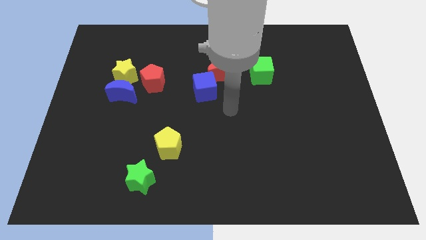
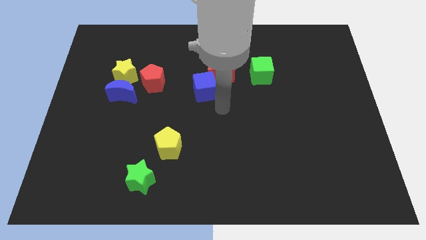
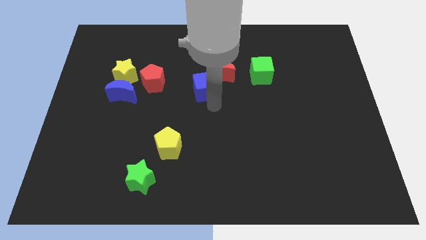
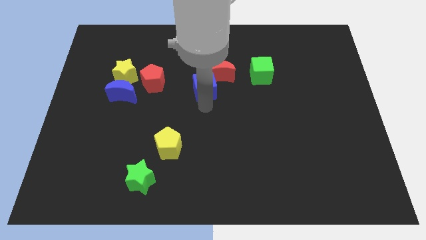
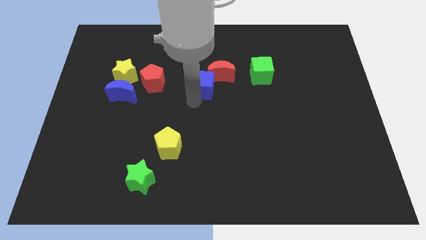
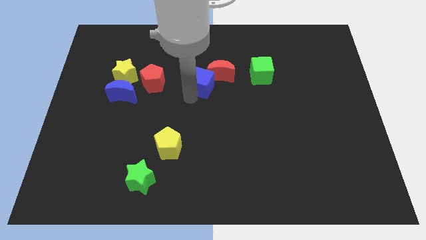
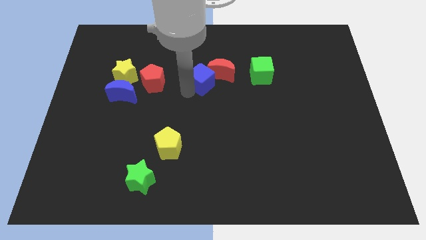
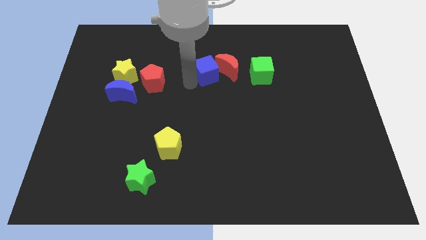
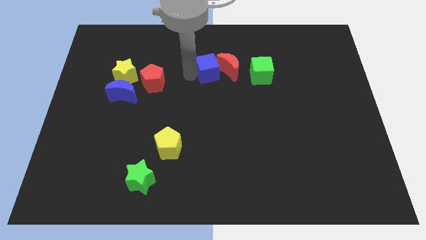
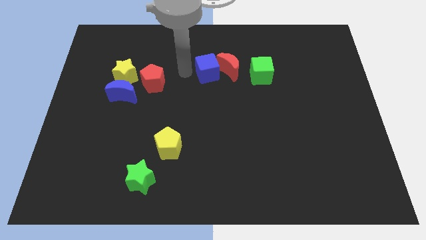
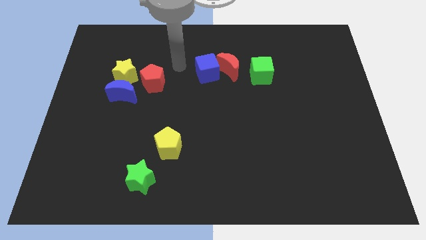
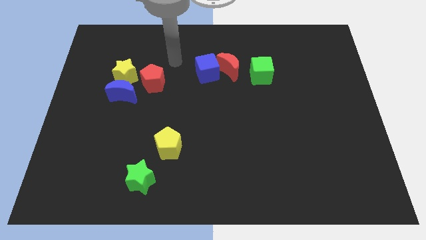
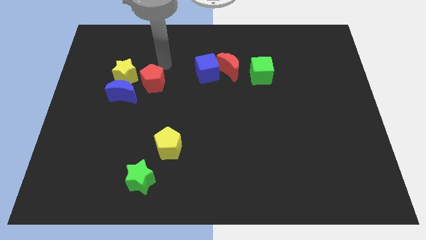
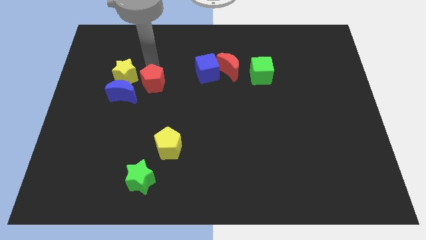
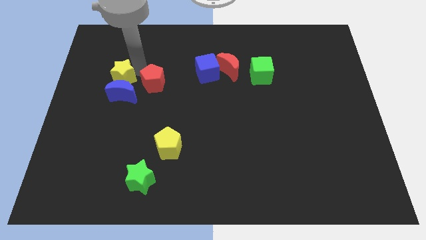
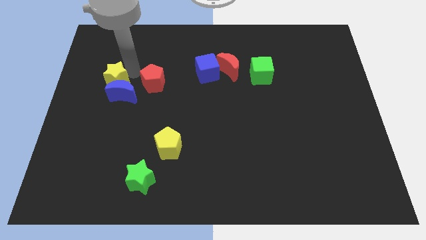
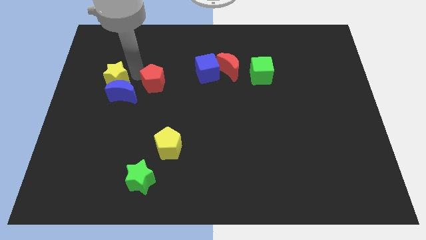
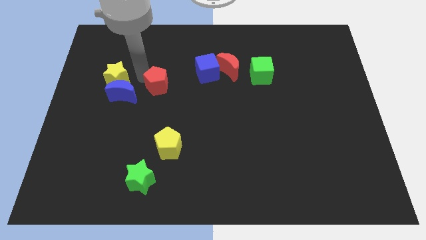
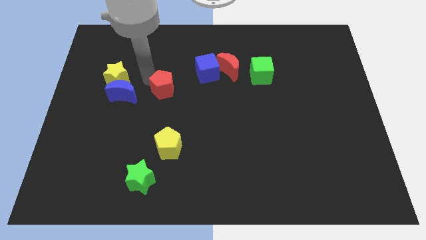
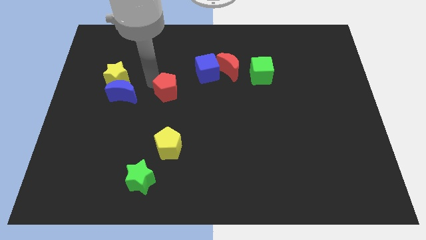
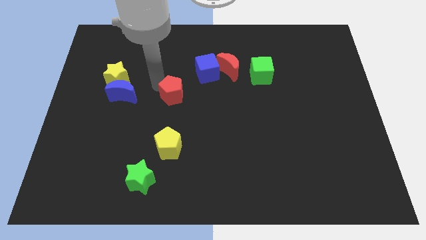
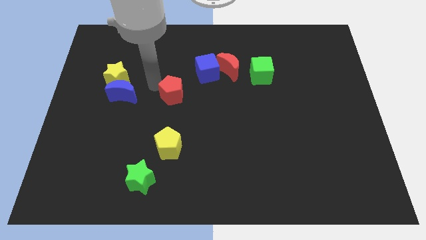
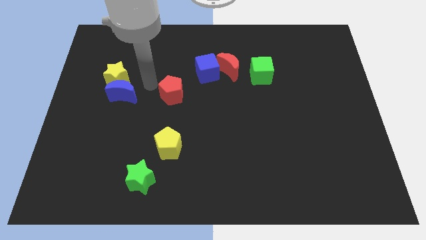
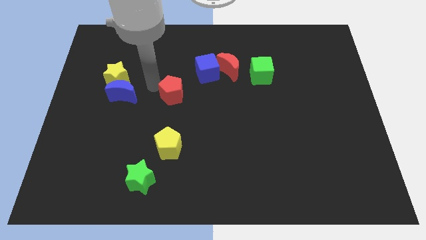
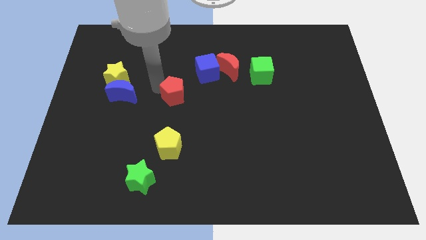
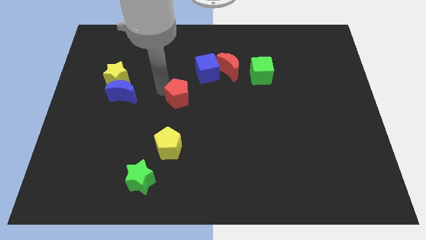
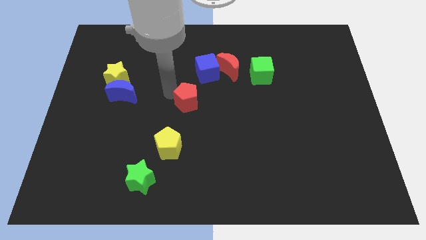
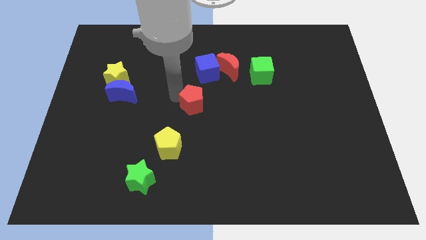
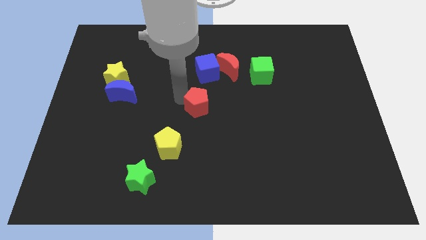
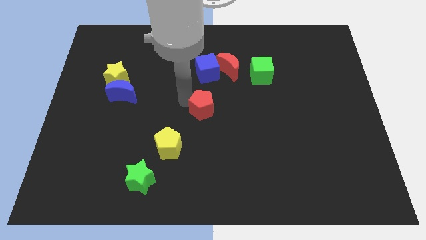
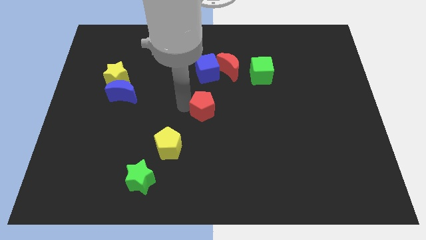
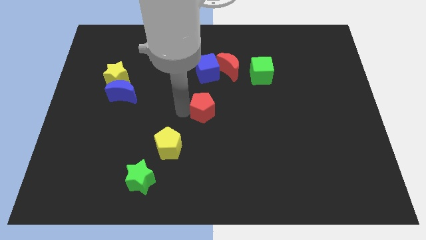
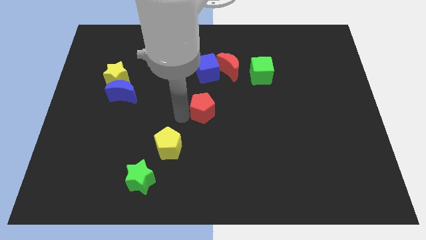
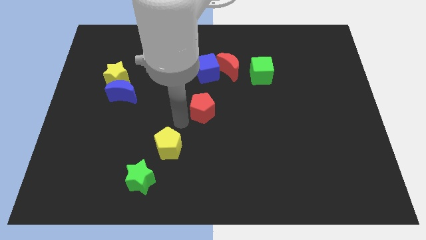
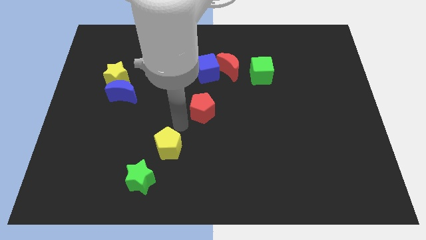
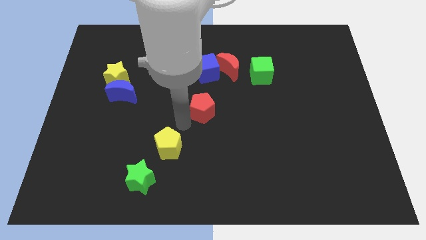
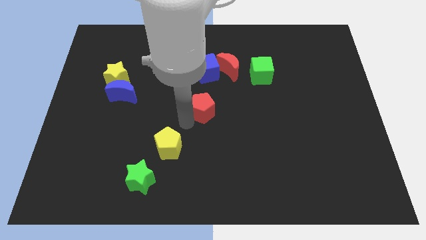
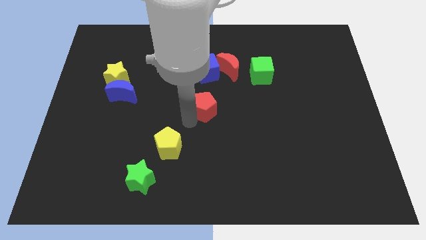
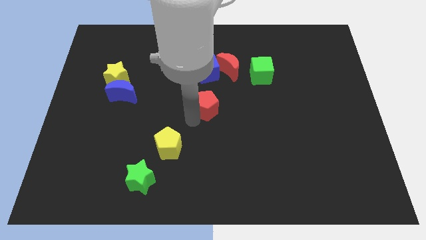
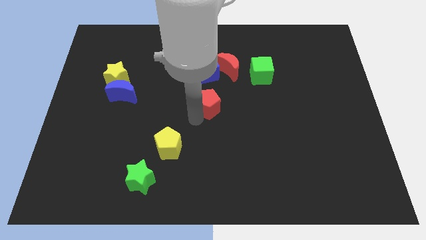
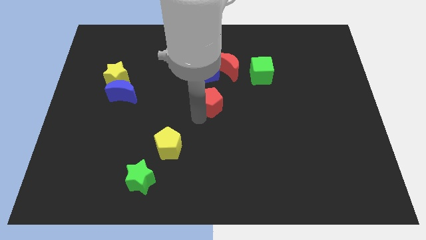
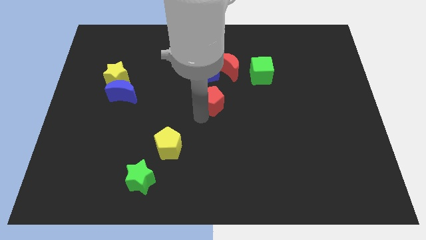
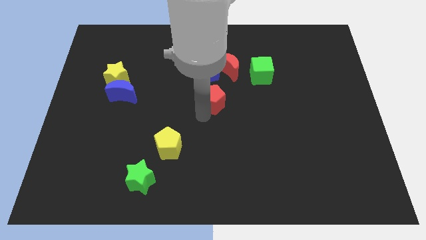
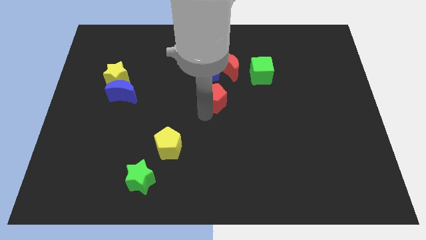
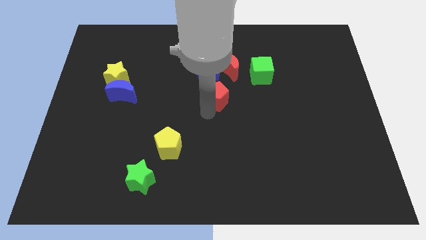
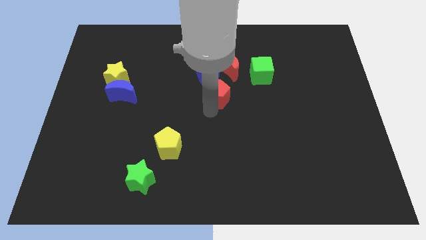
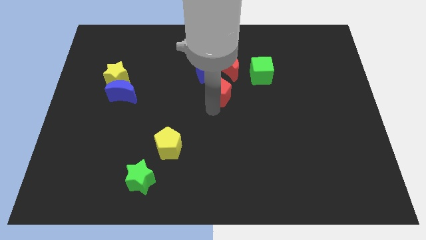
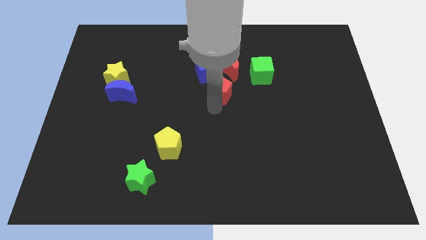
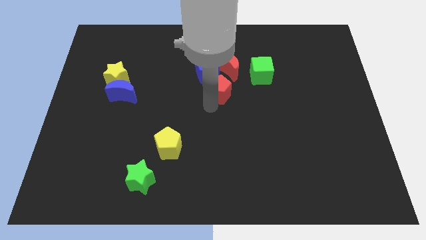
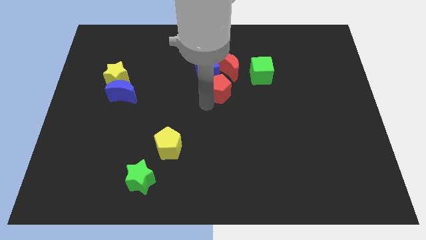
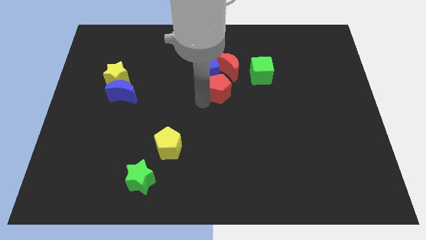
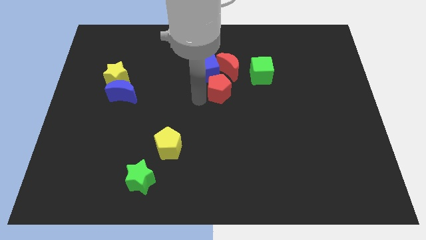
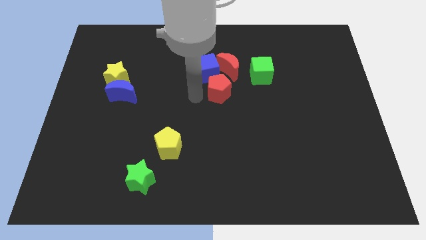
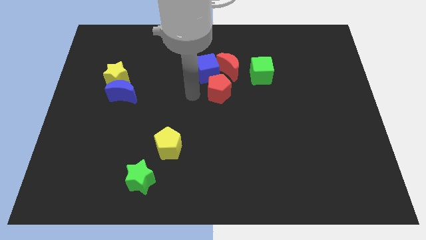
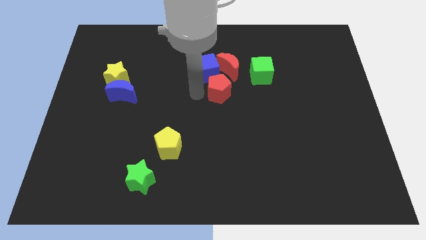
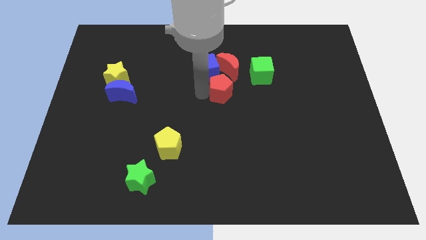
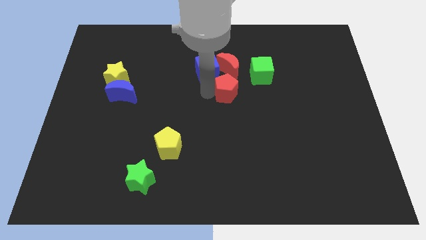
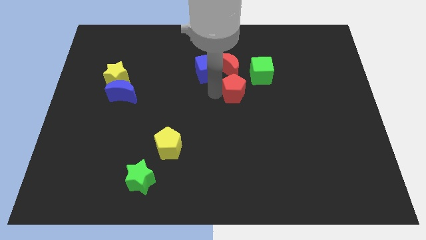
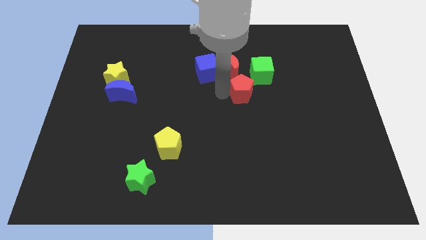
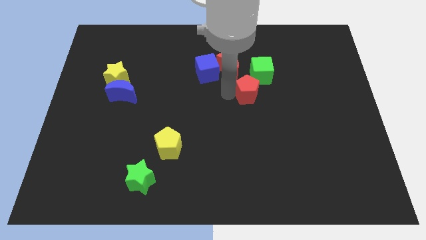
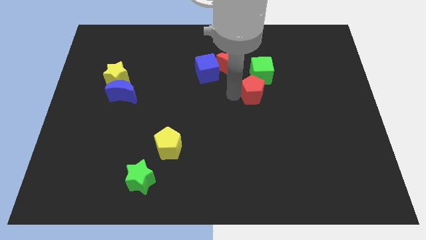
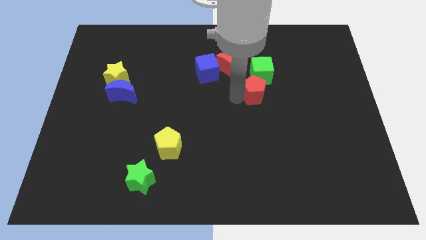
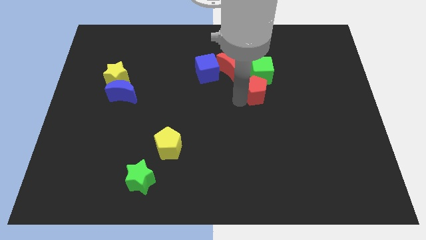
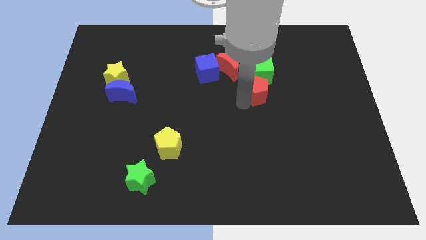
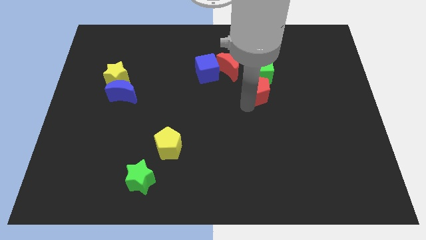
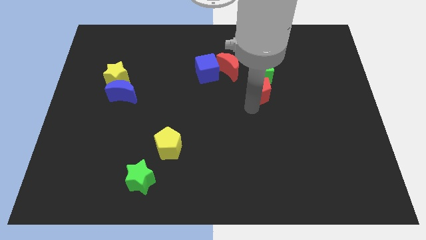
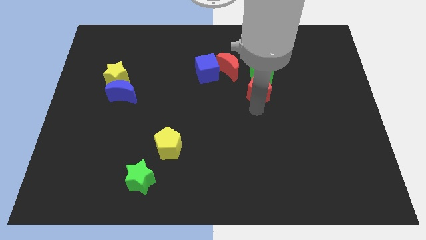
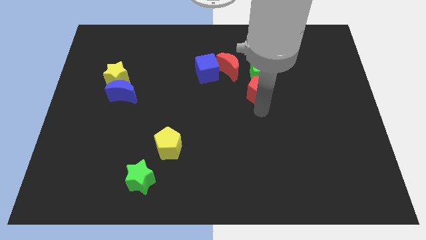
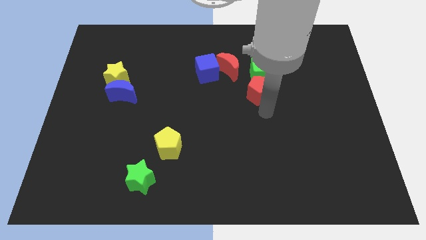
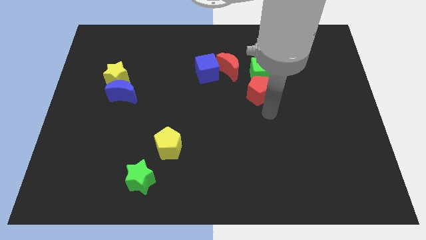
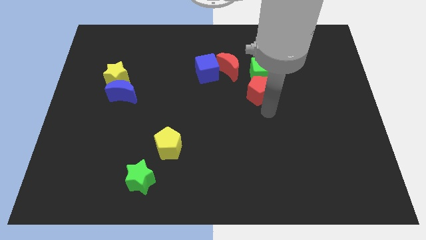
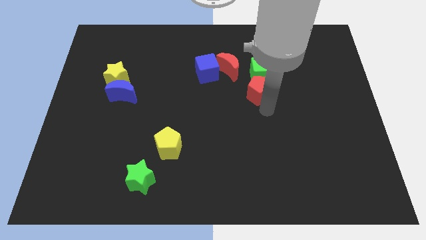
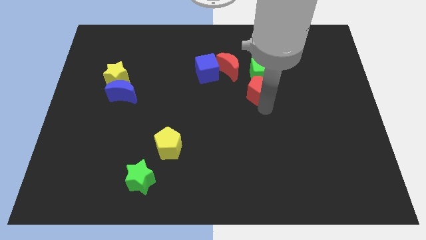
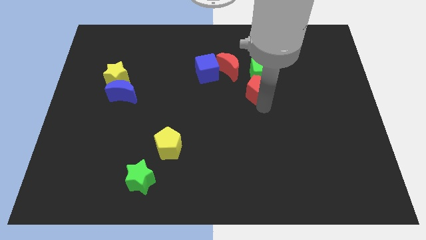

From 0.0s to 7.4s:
put the red pentagon to the green cube
